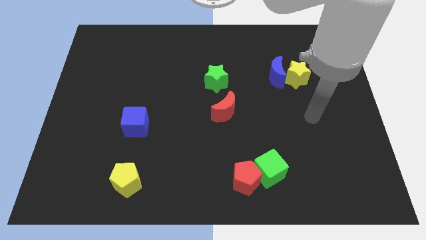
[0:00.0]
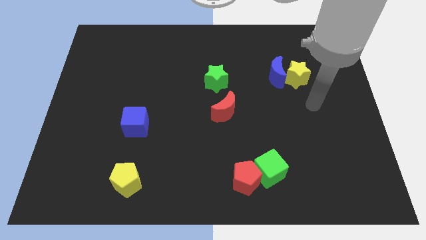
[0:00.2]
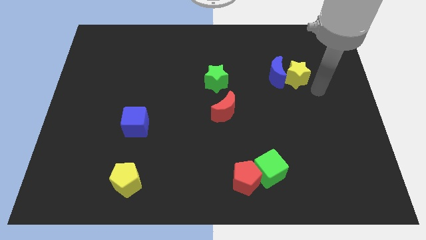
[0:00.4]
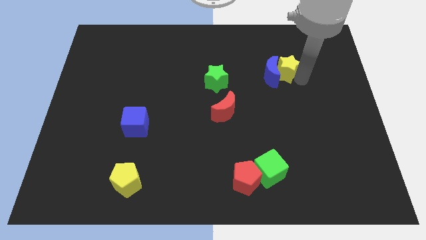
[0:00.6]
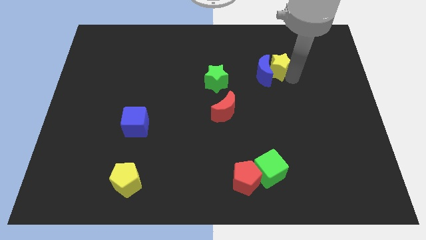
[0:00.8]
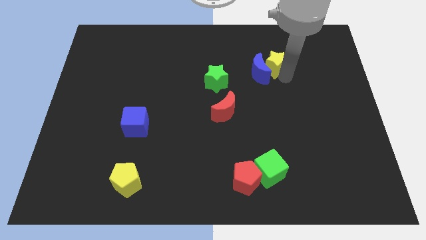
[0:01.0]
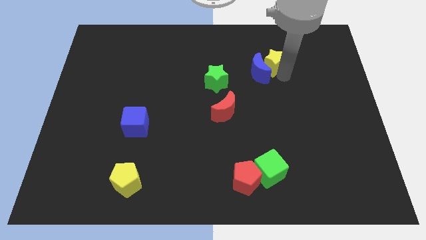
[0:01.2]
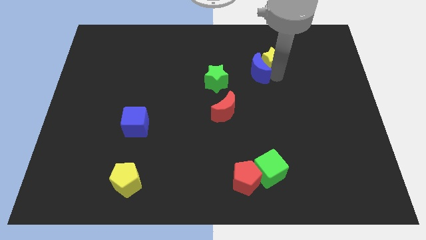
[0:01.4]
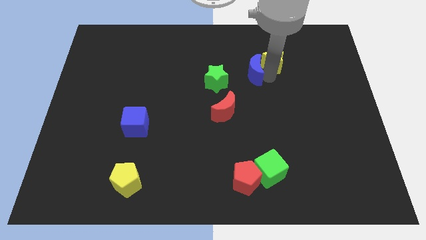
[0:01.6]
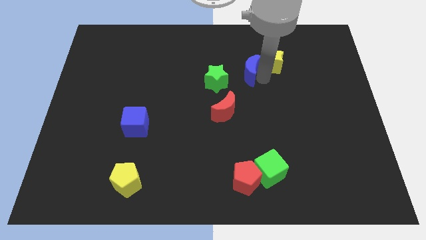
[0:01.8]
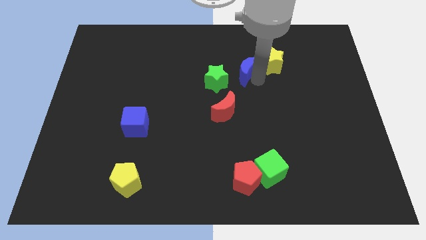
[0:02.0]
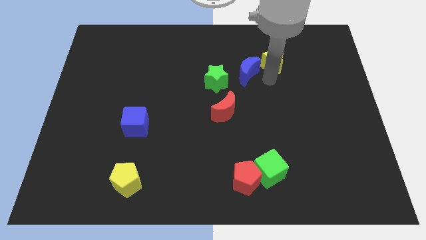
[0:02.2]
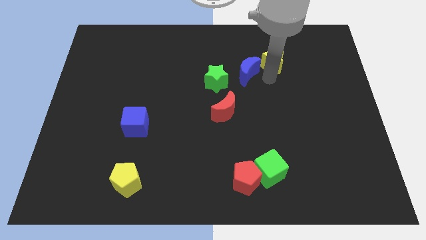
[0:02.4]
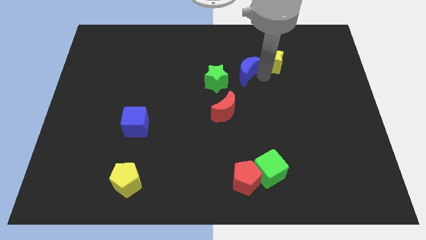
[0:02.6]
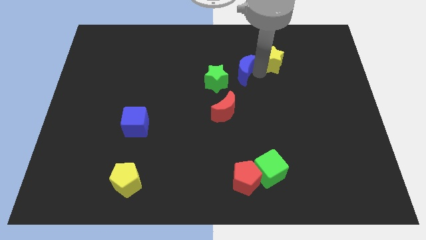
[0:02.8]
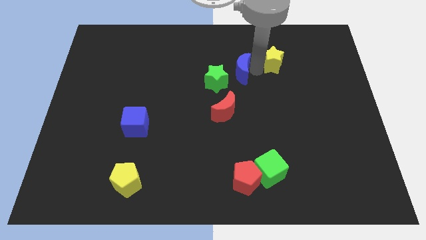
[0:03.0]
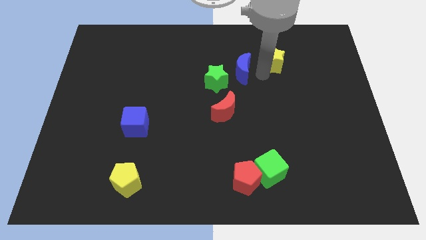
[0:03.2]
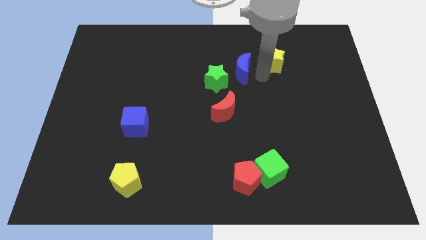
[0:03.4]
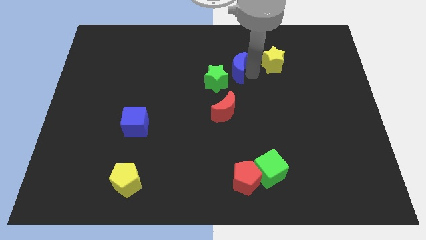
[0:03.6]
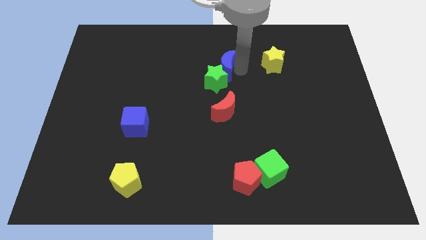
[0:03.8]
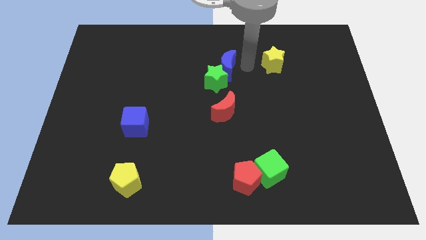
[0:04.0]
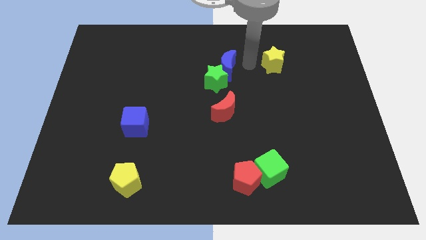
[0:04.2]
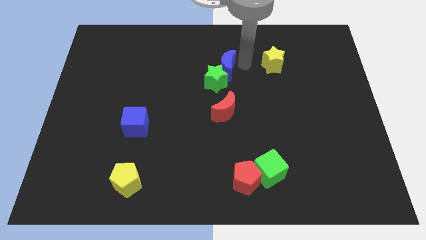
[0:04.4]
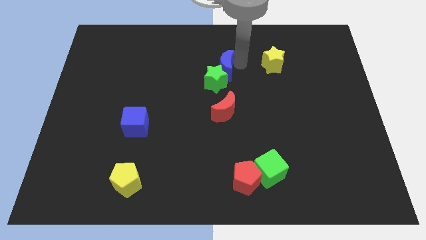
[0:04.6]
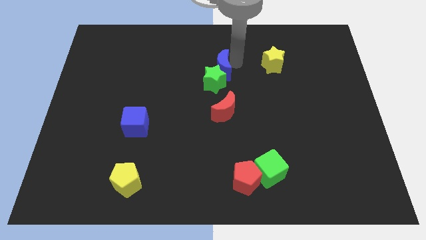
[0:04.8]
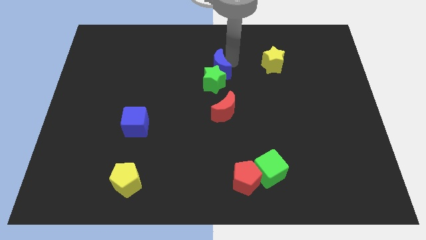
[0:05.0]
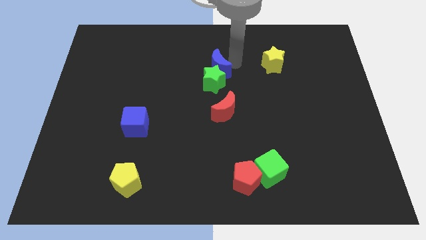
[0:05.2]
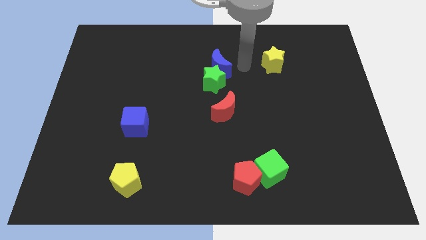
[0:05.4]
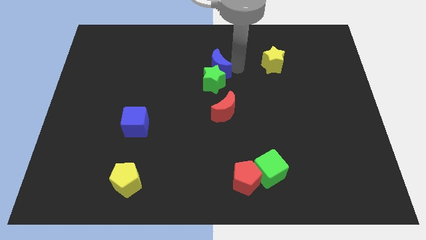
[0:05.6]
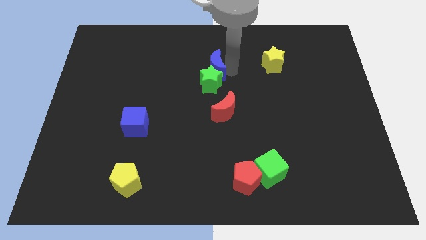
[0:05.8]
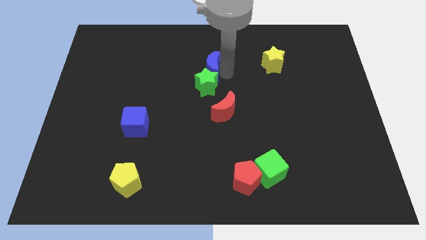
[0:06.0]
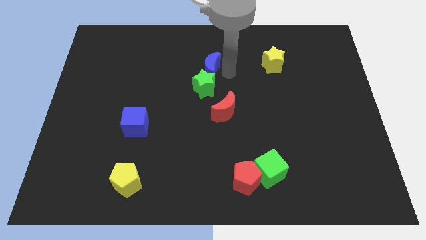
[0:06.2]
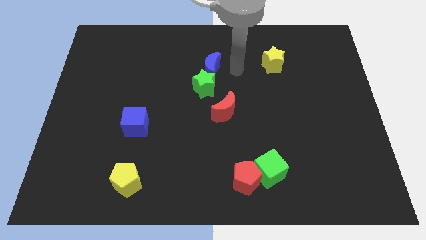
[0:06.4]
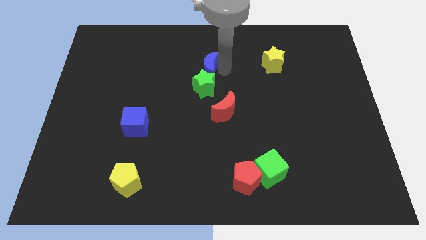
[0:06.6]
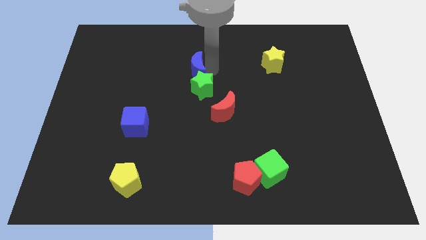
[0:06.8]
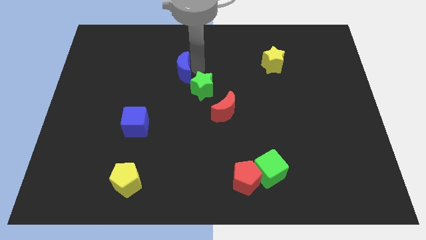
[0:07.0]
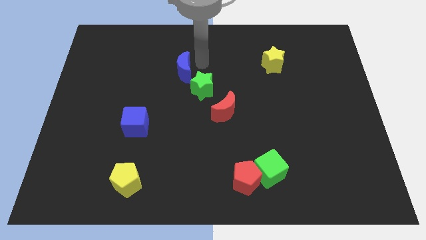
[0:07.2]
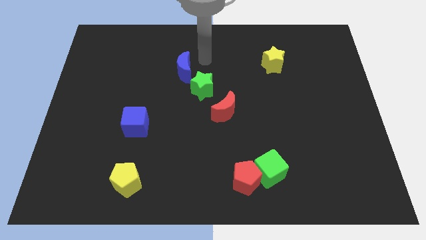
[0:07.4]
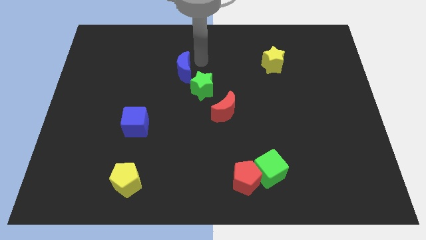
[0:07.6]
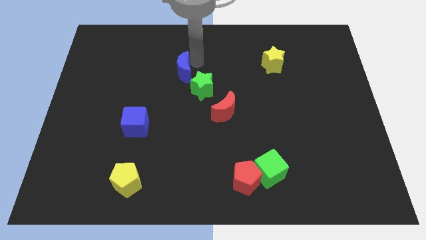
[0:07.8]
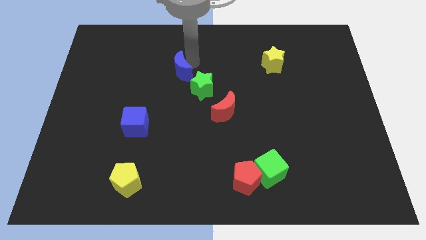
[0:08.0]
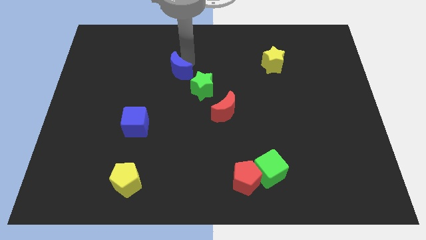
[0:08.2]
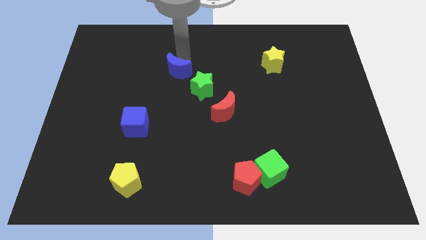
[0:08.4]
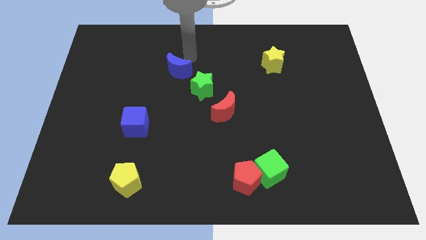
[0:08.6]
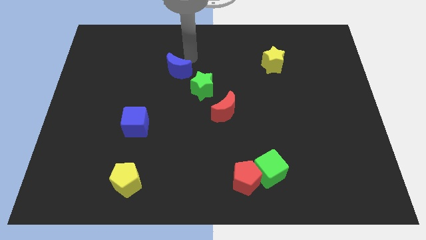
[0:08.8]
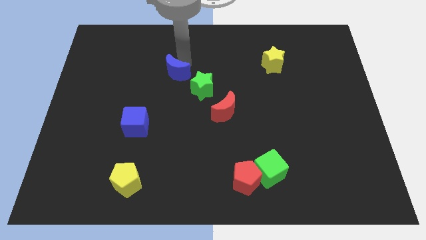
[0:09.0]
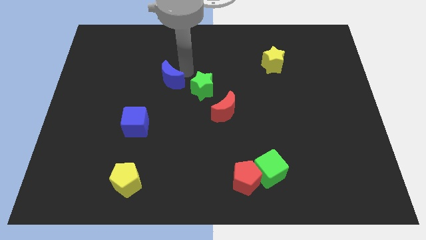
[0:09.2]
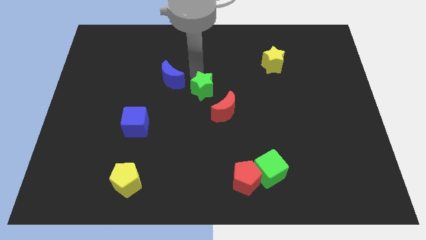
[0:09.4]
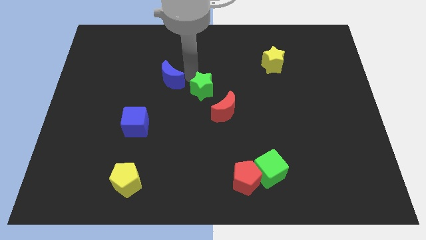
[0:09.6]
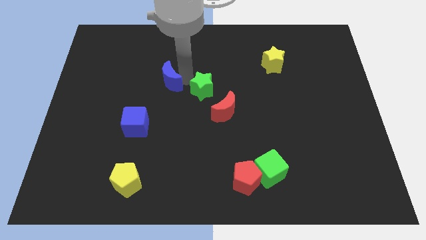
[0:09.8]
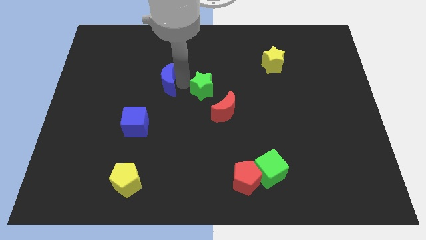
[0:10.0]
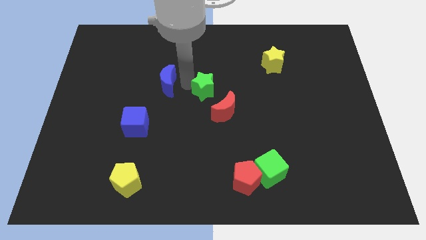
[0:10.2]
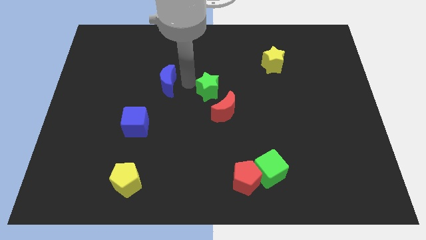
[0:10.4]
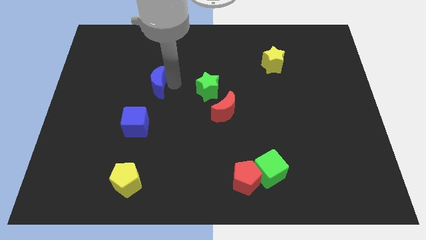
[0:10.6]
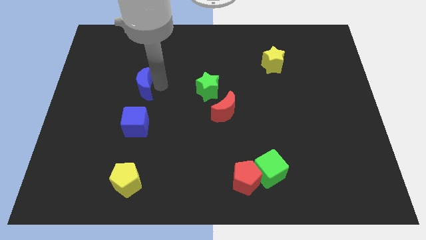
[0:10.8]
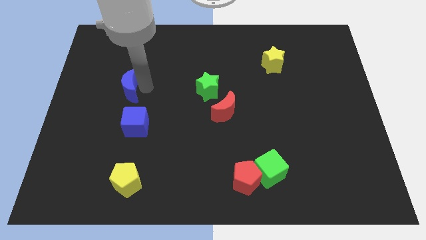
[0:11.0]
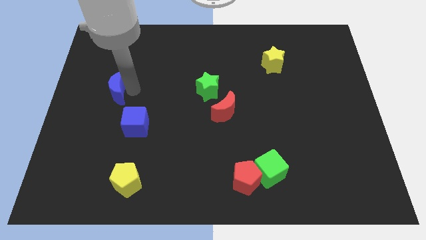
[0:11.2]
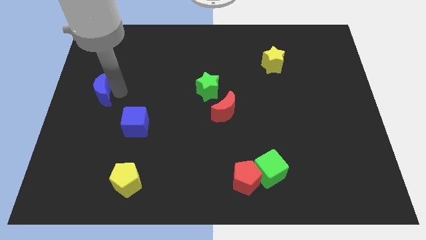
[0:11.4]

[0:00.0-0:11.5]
push the blue moon to the left side of the board

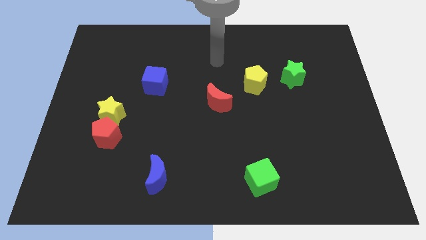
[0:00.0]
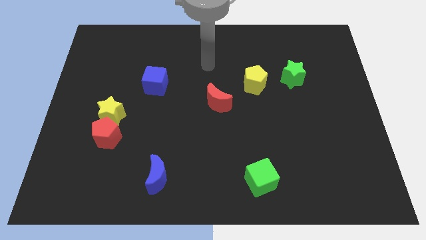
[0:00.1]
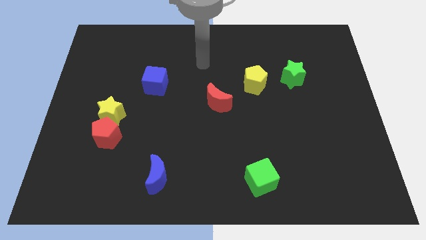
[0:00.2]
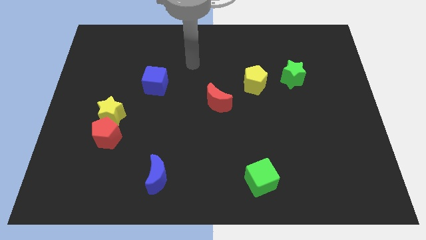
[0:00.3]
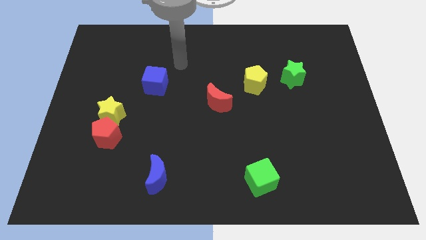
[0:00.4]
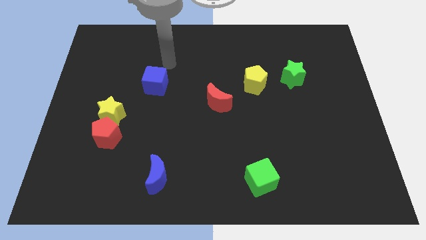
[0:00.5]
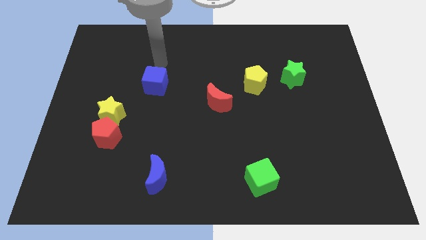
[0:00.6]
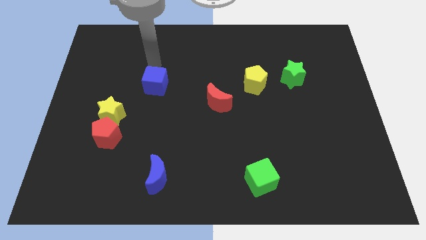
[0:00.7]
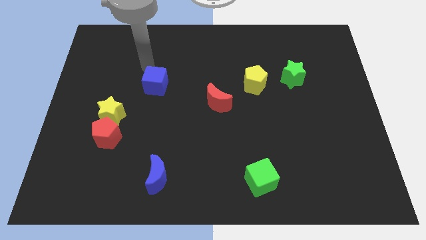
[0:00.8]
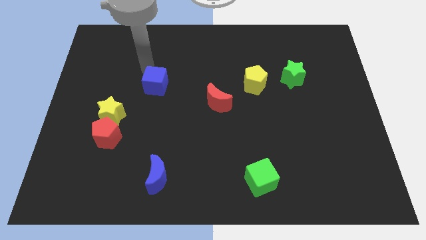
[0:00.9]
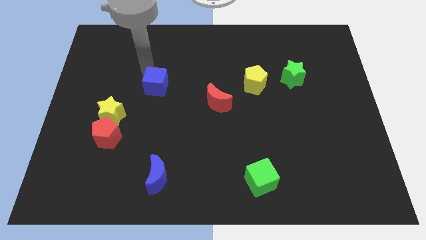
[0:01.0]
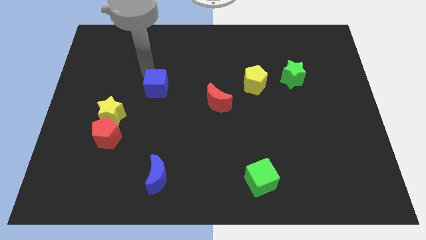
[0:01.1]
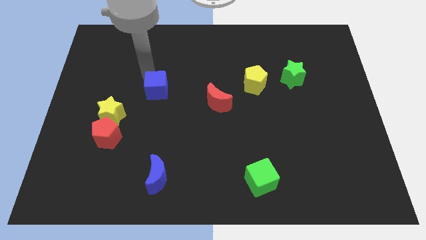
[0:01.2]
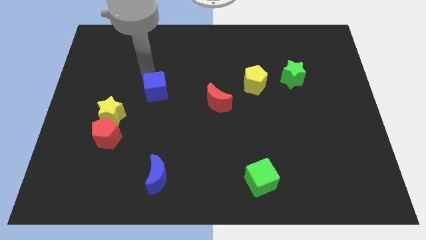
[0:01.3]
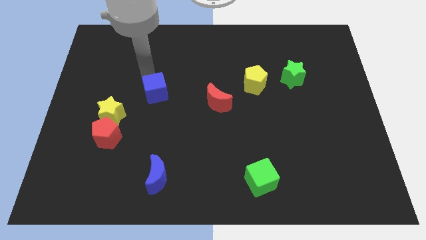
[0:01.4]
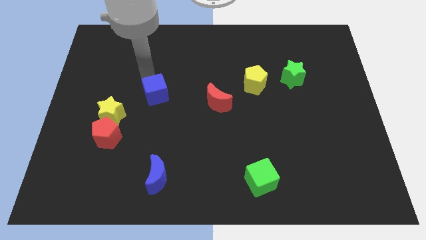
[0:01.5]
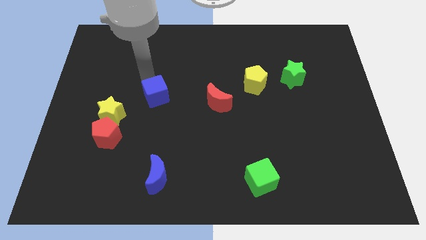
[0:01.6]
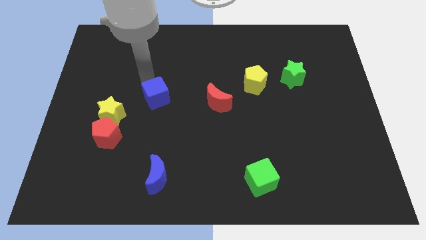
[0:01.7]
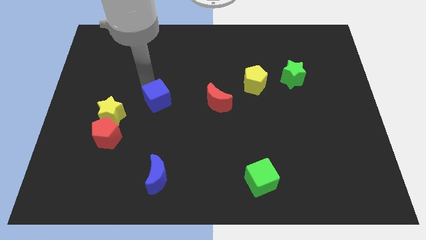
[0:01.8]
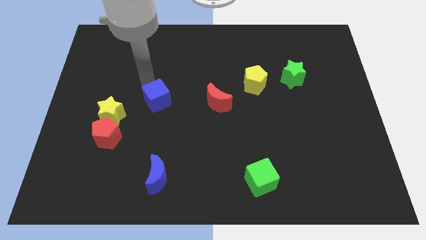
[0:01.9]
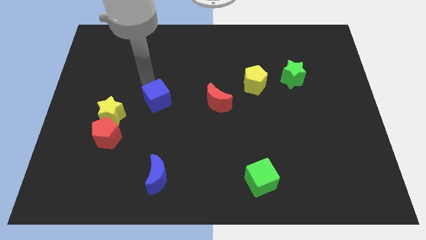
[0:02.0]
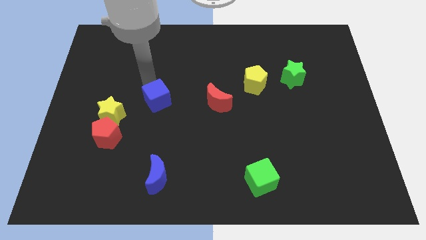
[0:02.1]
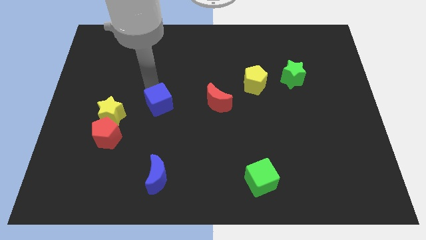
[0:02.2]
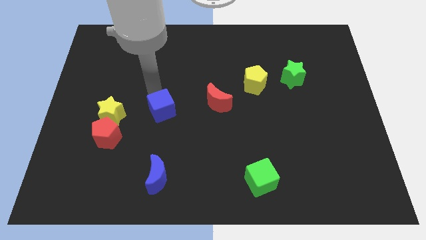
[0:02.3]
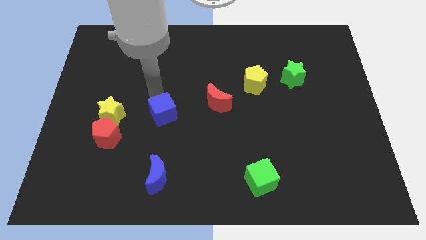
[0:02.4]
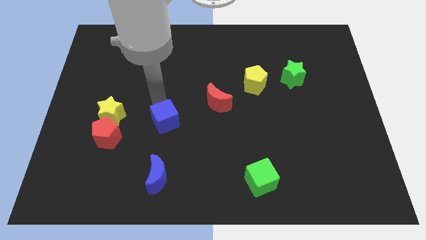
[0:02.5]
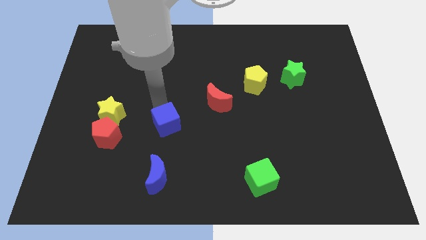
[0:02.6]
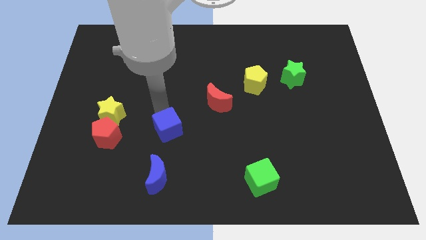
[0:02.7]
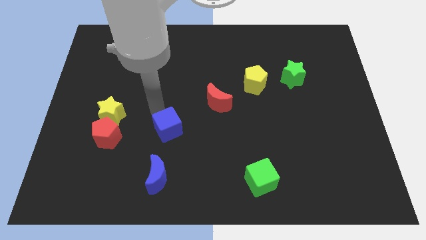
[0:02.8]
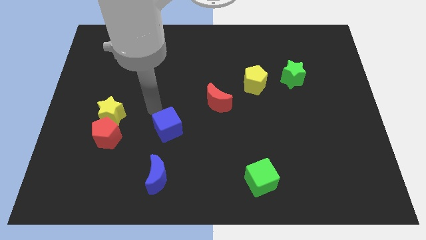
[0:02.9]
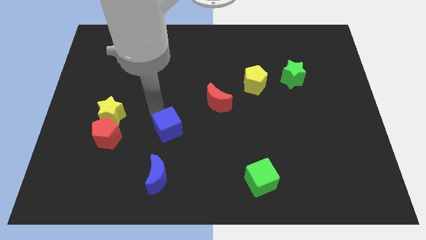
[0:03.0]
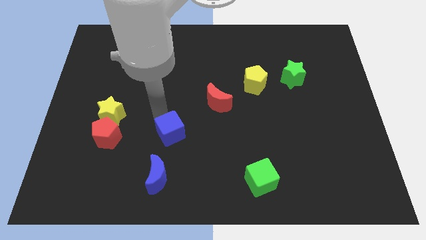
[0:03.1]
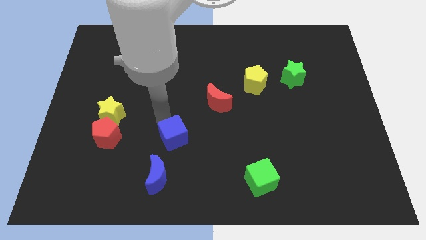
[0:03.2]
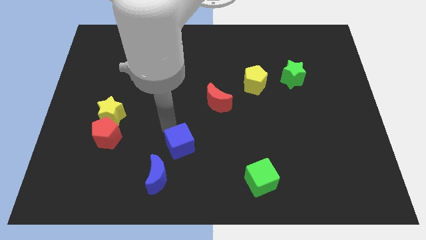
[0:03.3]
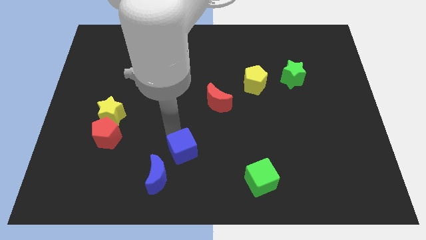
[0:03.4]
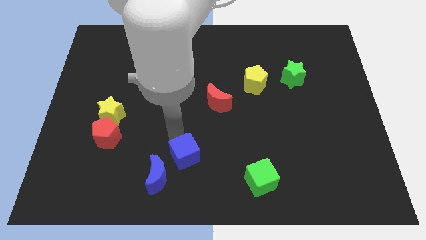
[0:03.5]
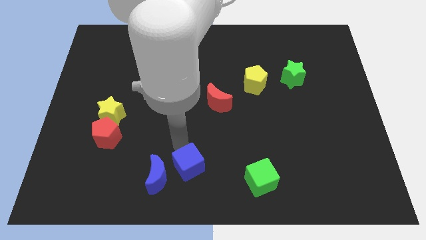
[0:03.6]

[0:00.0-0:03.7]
put the blue cube to the bottom
